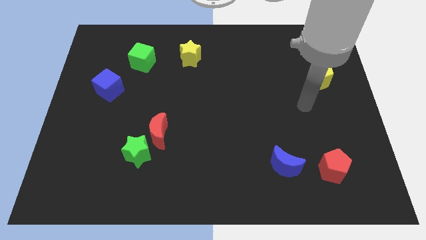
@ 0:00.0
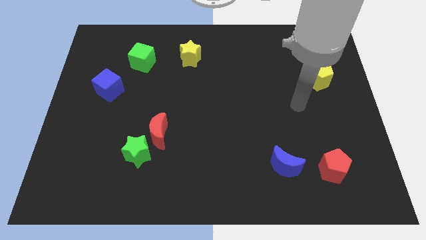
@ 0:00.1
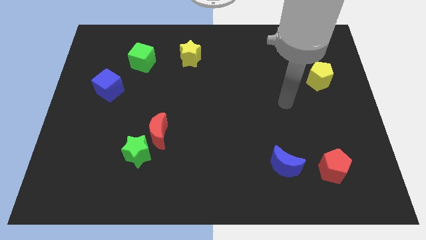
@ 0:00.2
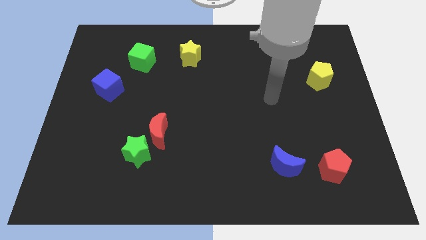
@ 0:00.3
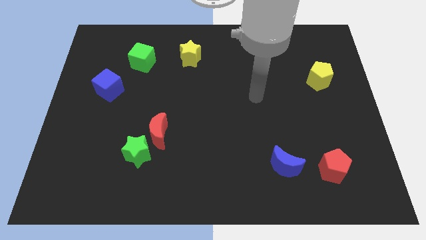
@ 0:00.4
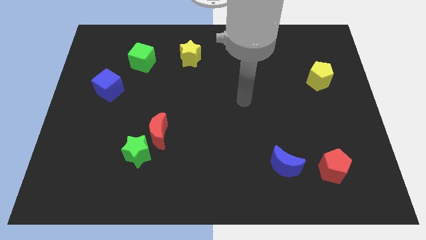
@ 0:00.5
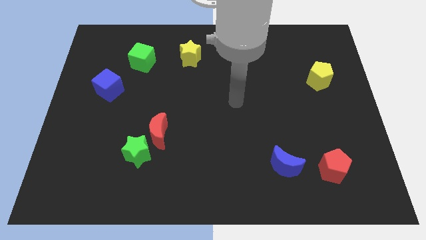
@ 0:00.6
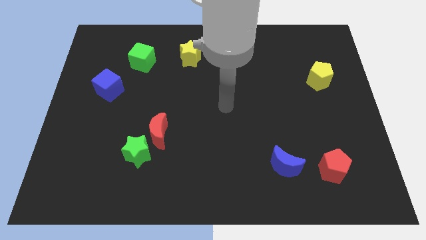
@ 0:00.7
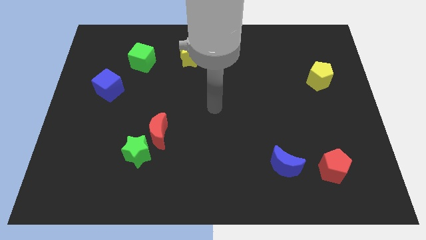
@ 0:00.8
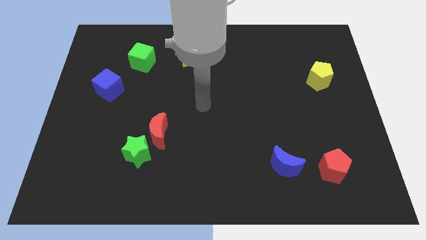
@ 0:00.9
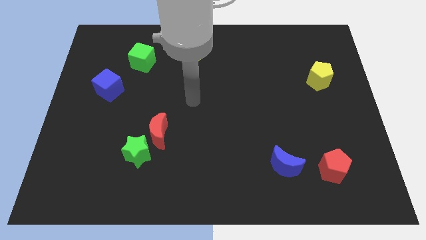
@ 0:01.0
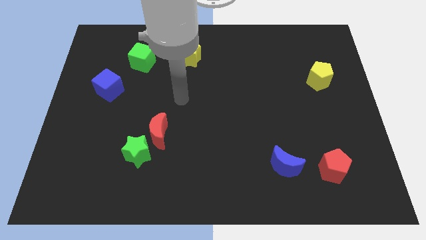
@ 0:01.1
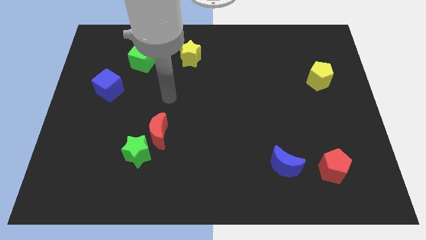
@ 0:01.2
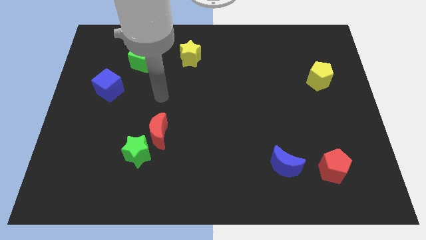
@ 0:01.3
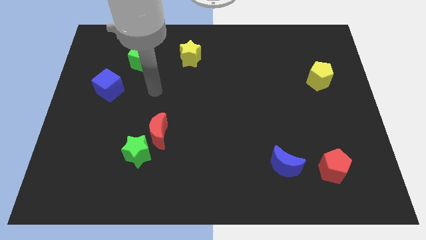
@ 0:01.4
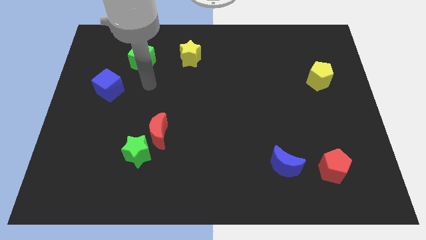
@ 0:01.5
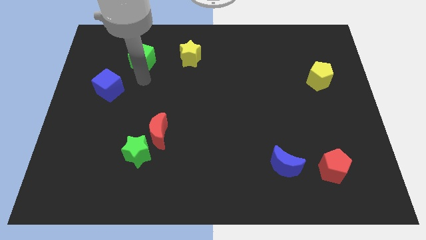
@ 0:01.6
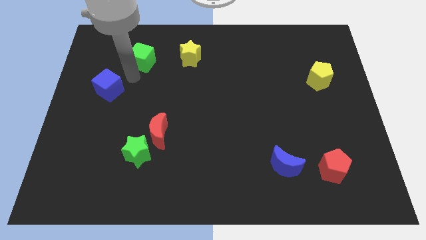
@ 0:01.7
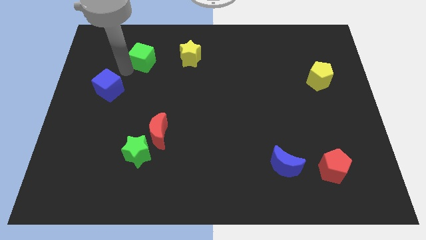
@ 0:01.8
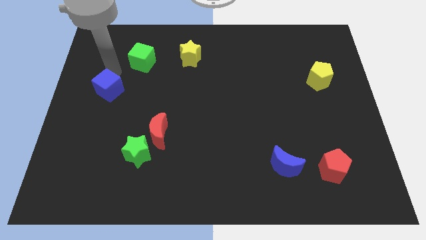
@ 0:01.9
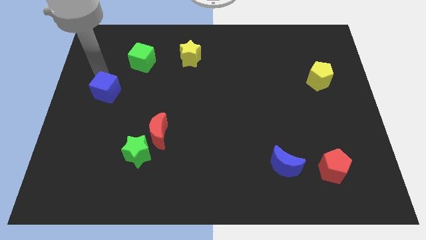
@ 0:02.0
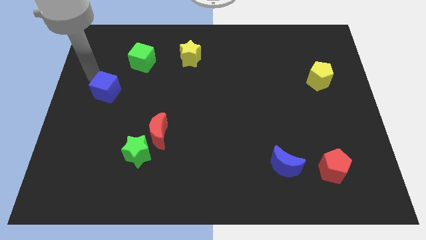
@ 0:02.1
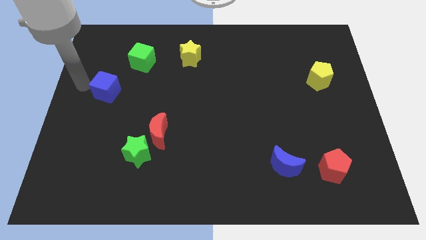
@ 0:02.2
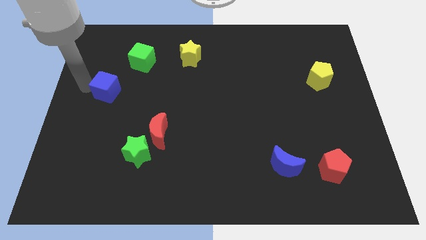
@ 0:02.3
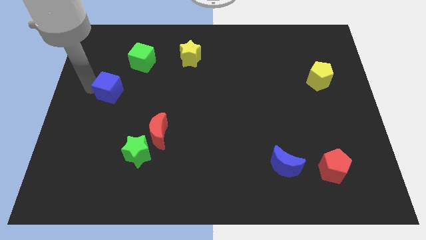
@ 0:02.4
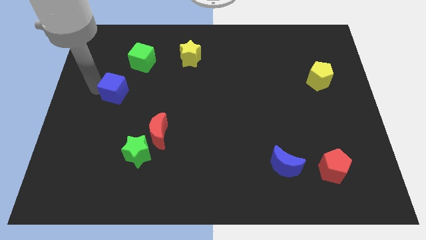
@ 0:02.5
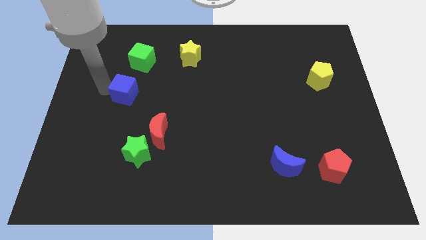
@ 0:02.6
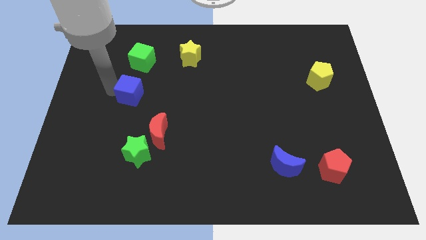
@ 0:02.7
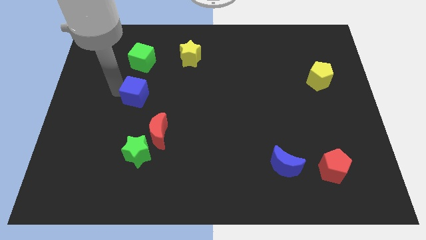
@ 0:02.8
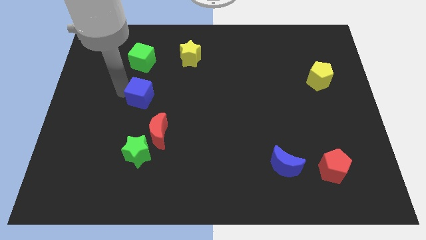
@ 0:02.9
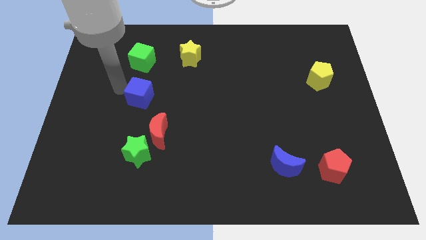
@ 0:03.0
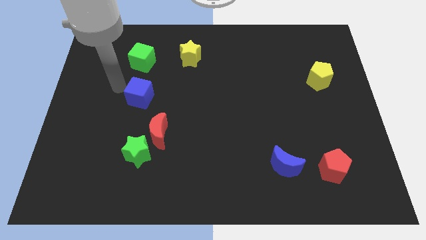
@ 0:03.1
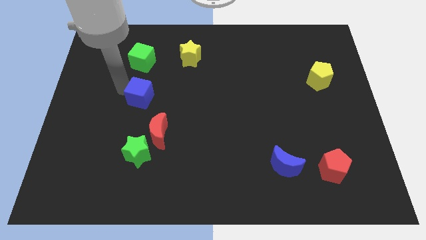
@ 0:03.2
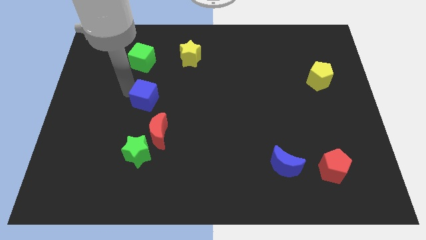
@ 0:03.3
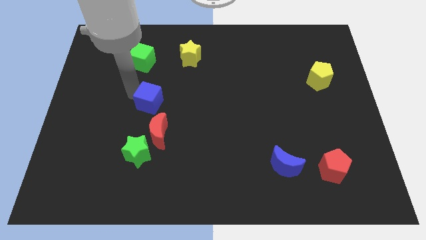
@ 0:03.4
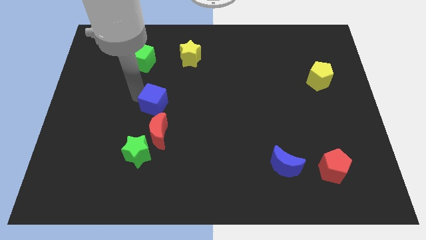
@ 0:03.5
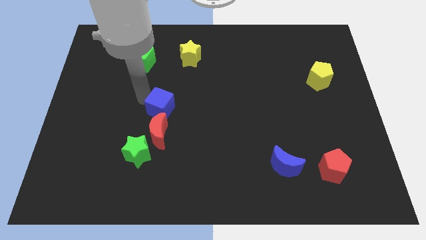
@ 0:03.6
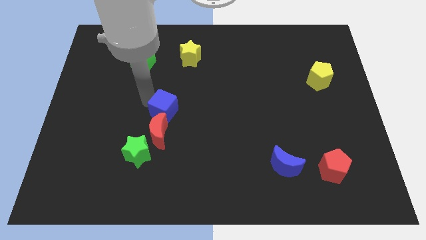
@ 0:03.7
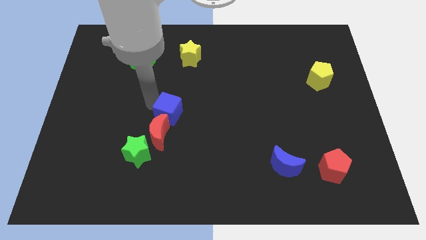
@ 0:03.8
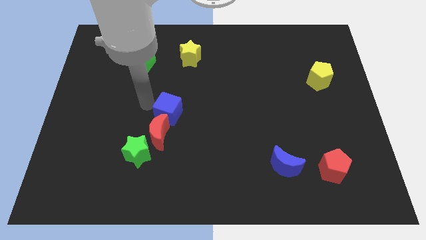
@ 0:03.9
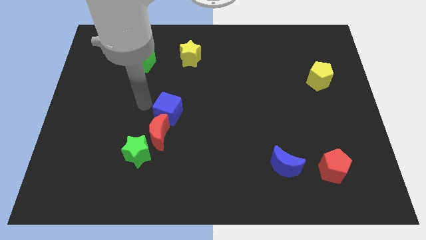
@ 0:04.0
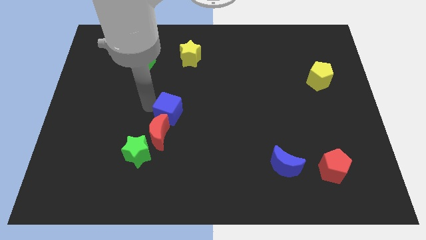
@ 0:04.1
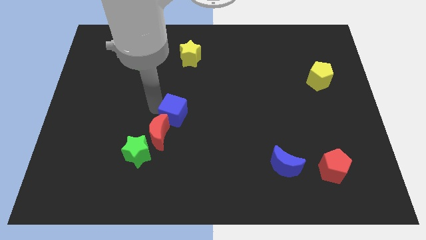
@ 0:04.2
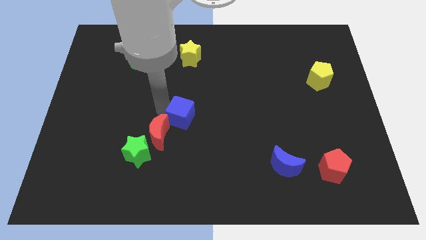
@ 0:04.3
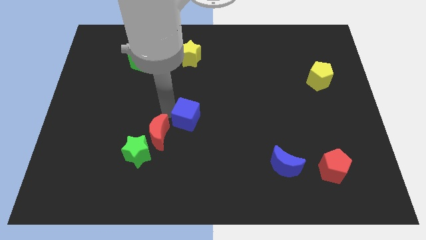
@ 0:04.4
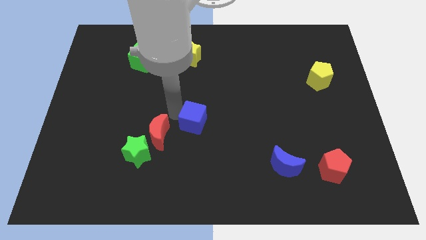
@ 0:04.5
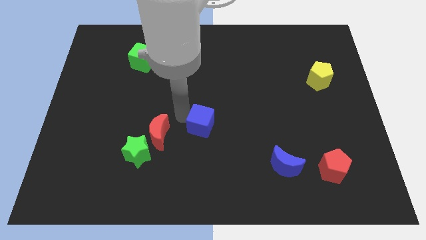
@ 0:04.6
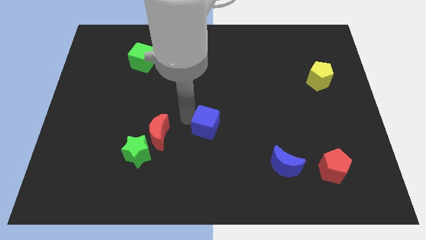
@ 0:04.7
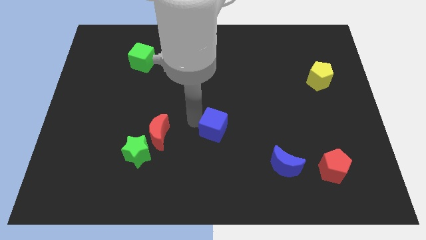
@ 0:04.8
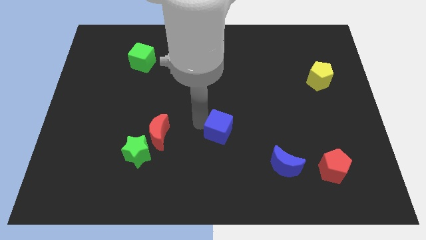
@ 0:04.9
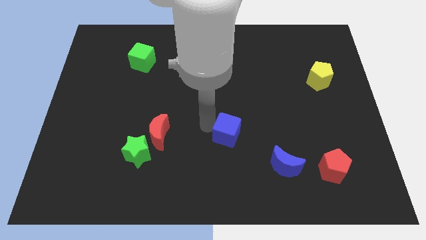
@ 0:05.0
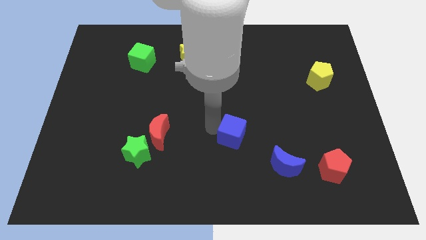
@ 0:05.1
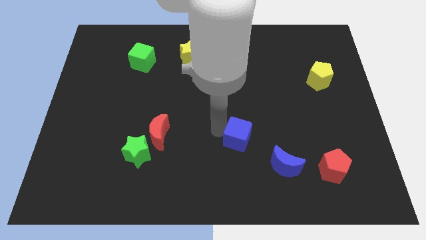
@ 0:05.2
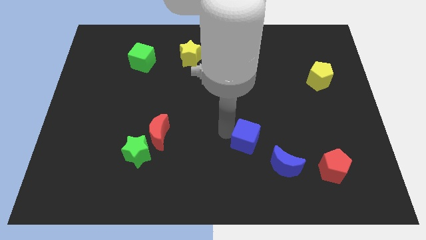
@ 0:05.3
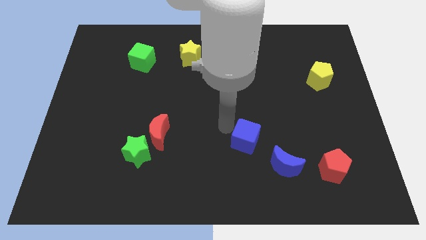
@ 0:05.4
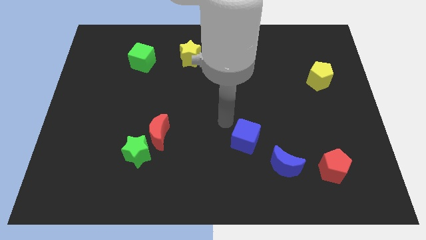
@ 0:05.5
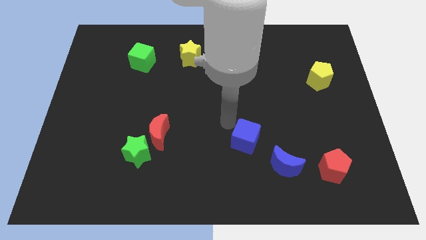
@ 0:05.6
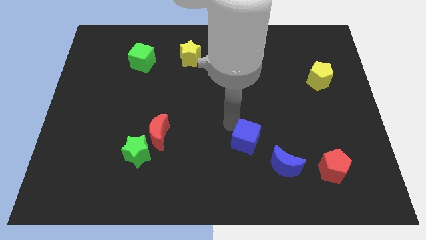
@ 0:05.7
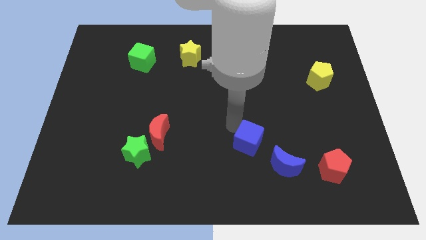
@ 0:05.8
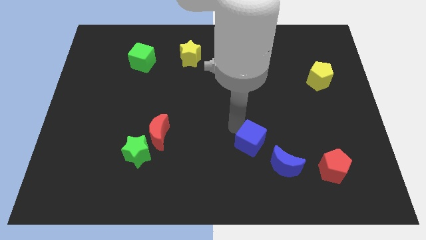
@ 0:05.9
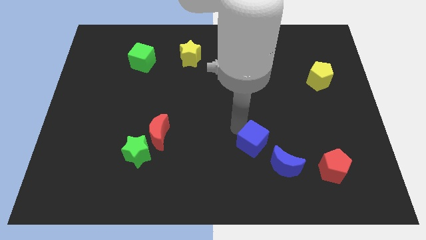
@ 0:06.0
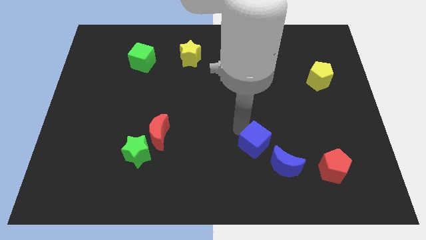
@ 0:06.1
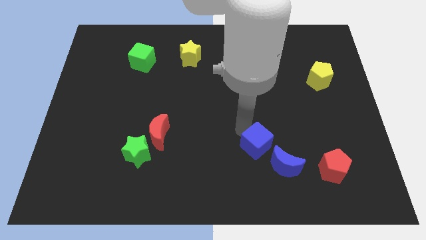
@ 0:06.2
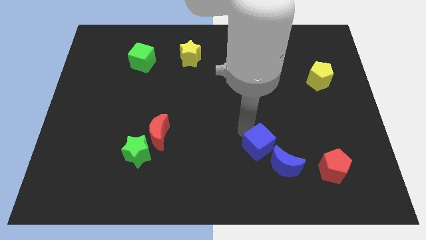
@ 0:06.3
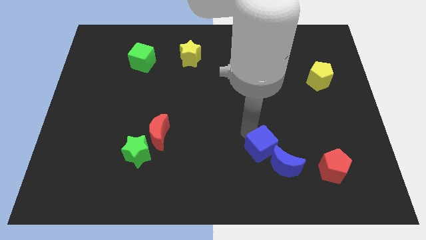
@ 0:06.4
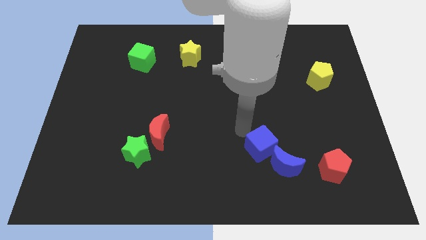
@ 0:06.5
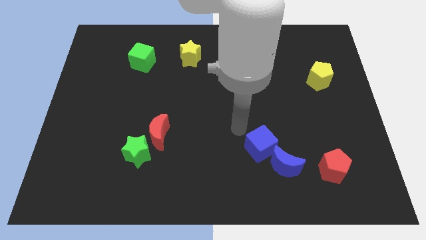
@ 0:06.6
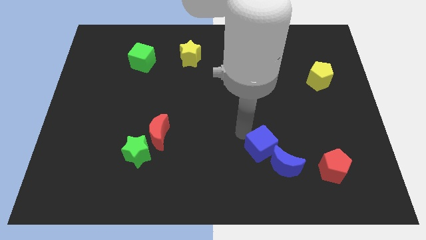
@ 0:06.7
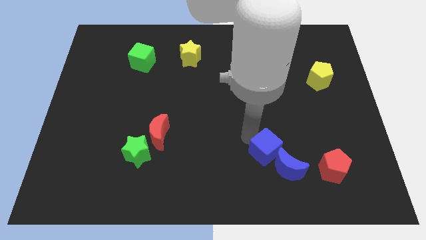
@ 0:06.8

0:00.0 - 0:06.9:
slide the blue cube to the blue moon
